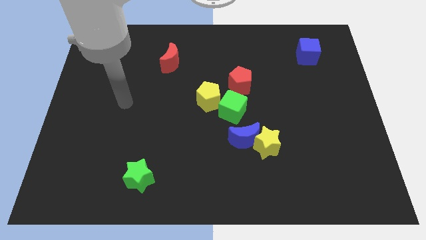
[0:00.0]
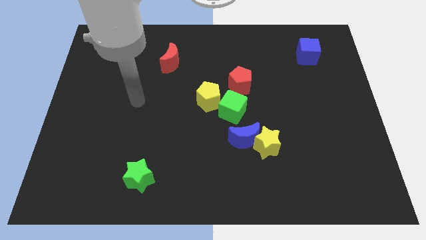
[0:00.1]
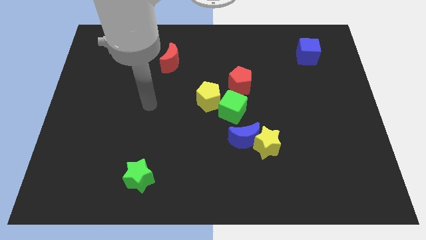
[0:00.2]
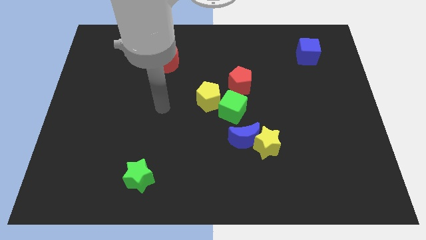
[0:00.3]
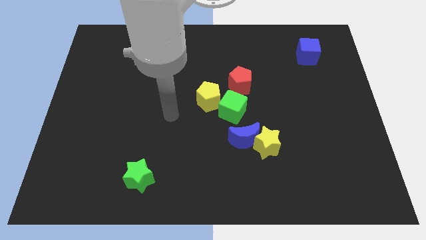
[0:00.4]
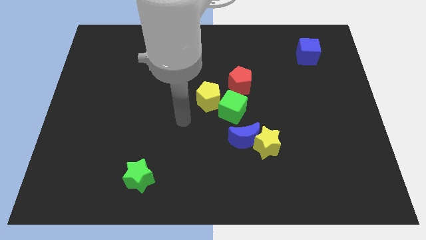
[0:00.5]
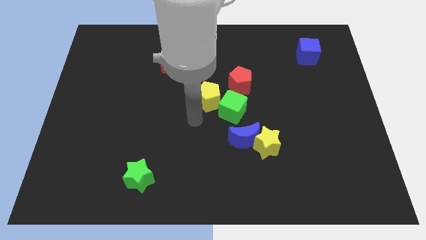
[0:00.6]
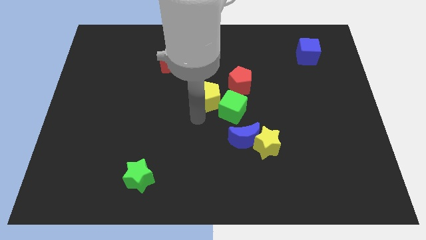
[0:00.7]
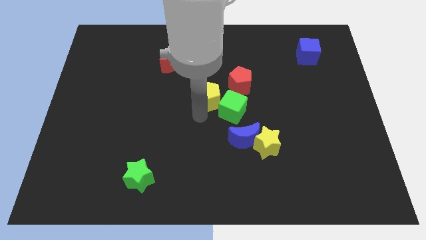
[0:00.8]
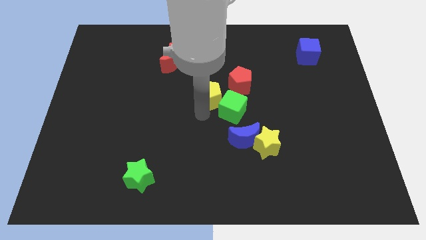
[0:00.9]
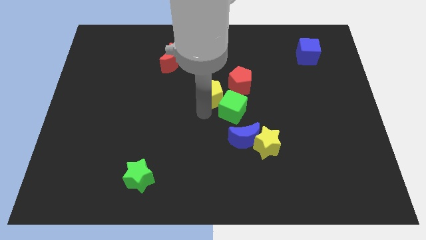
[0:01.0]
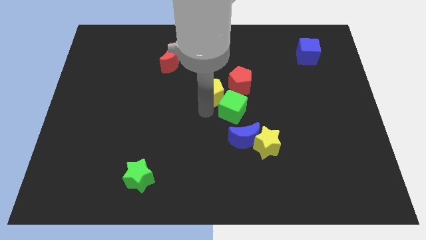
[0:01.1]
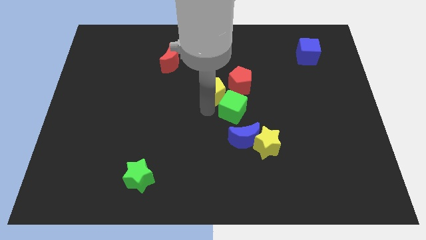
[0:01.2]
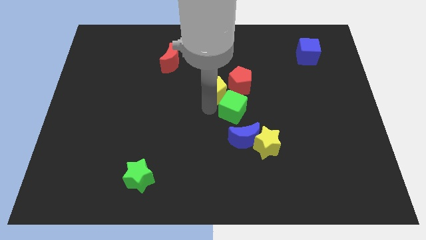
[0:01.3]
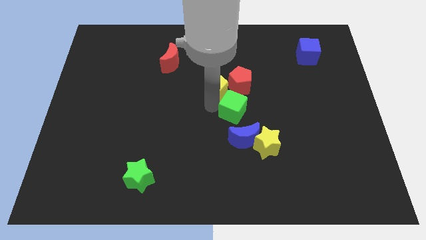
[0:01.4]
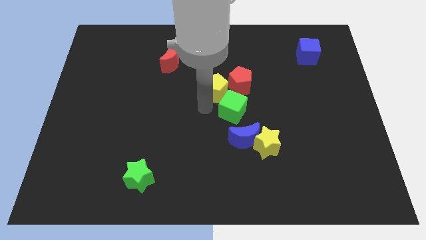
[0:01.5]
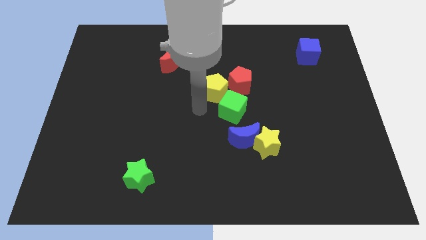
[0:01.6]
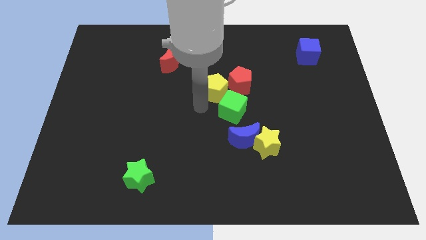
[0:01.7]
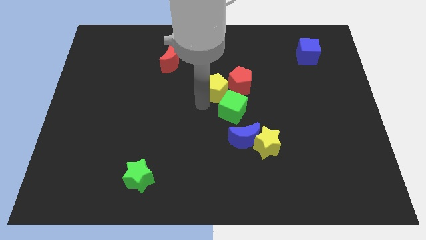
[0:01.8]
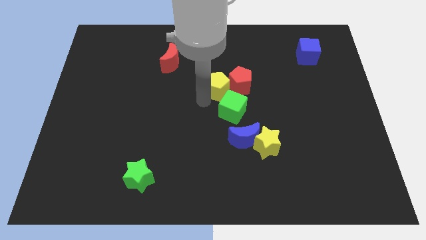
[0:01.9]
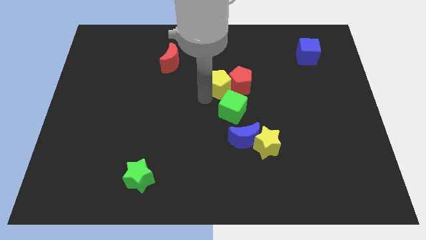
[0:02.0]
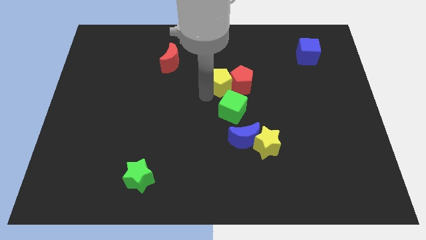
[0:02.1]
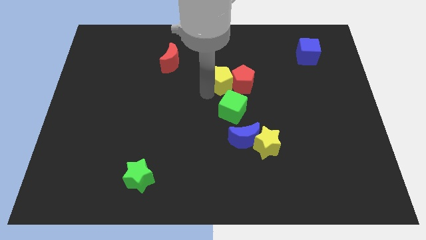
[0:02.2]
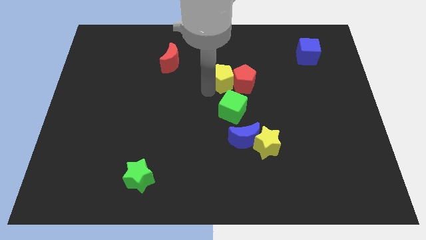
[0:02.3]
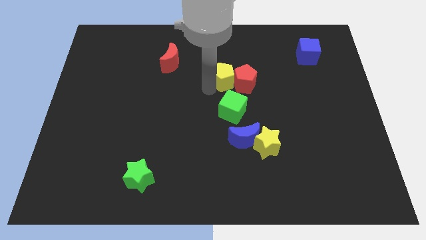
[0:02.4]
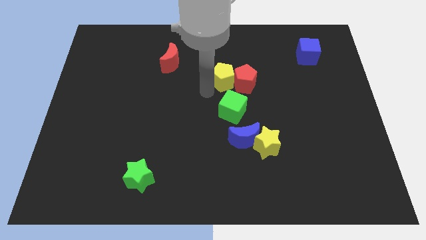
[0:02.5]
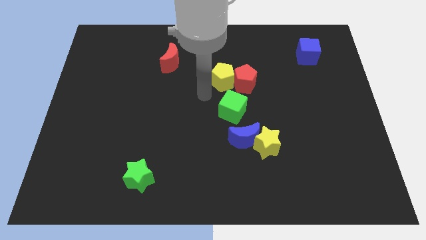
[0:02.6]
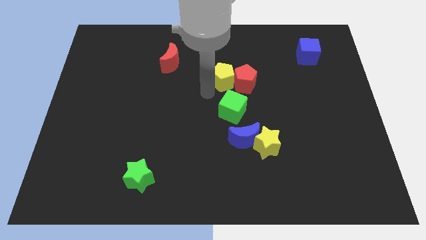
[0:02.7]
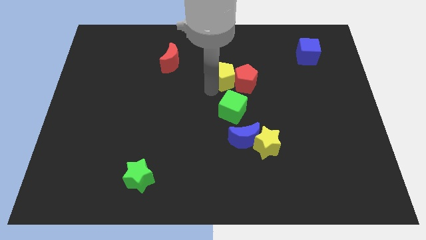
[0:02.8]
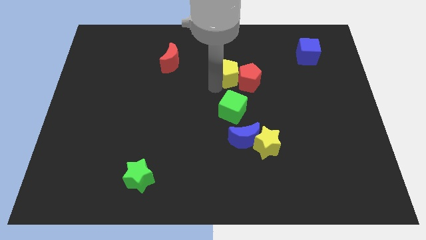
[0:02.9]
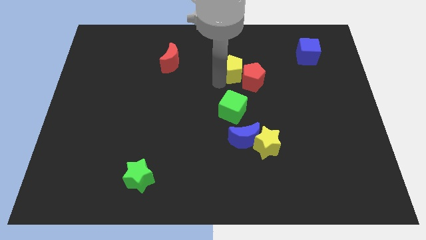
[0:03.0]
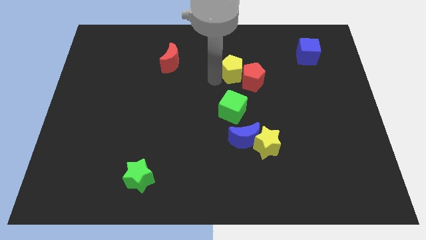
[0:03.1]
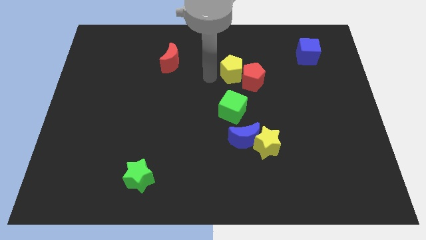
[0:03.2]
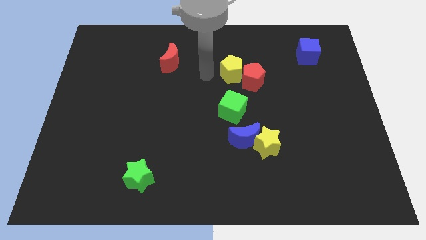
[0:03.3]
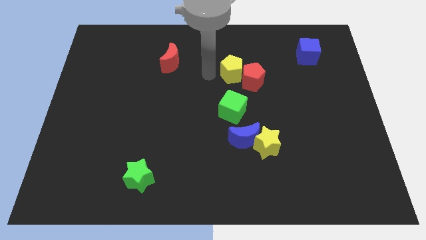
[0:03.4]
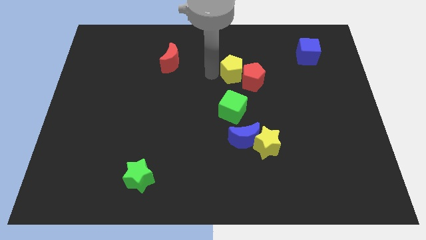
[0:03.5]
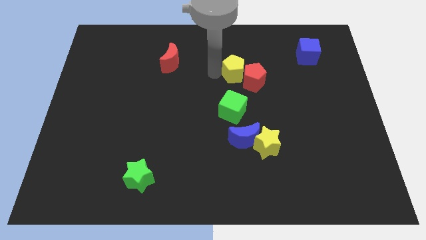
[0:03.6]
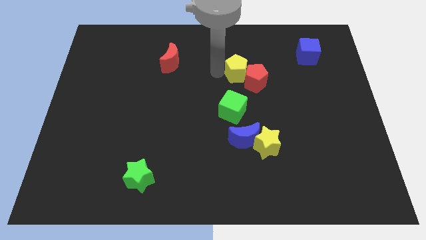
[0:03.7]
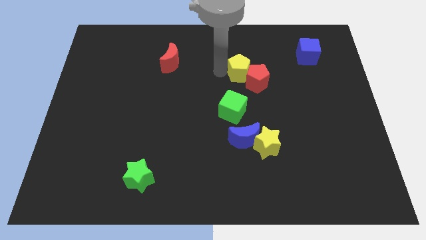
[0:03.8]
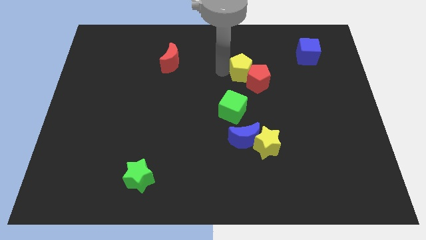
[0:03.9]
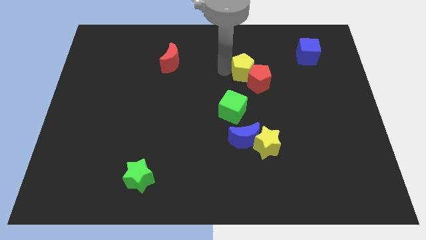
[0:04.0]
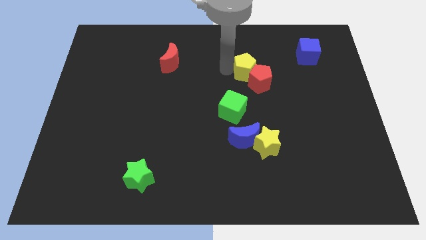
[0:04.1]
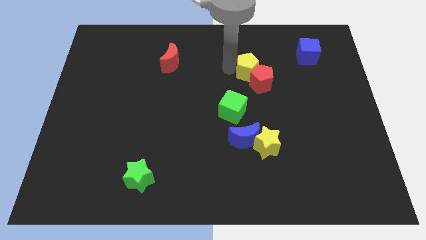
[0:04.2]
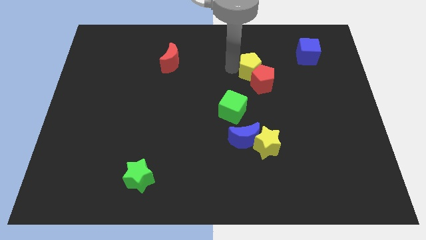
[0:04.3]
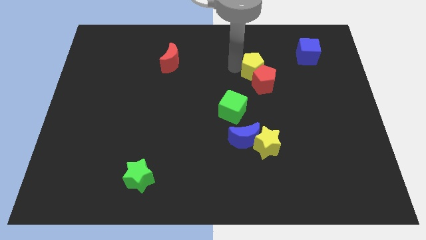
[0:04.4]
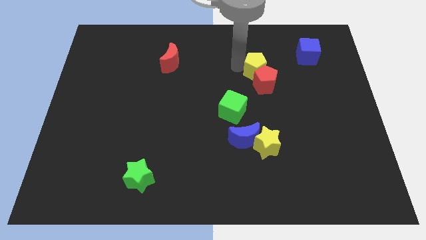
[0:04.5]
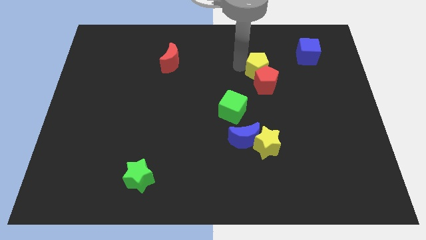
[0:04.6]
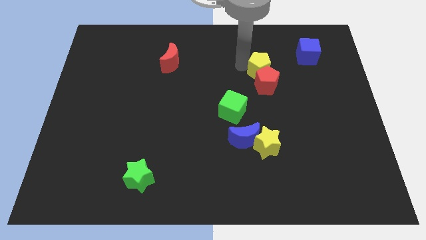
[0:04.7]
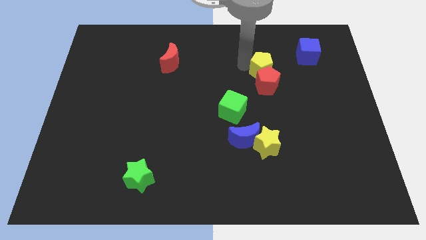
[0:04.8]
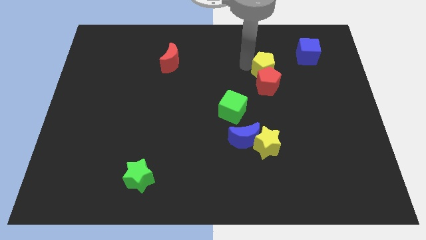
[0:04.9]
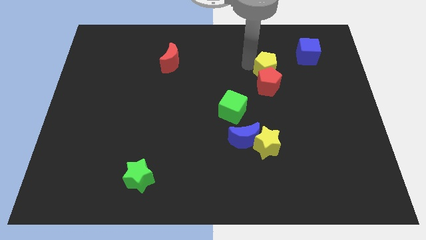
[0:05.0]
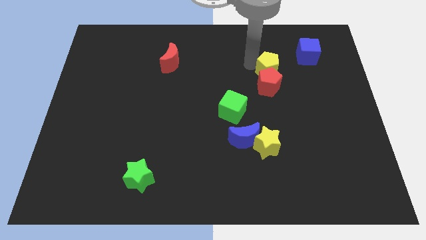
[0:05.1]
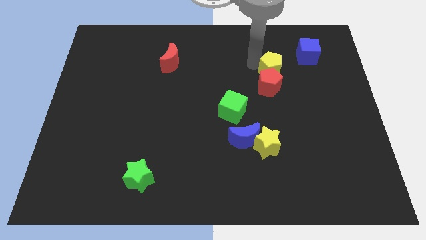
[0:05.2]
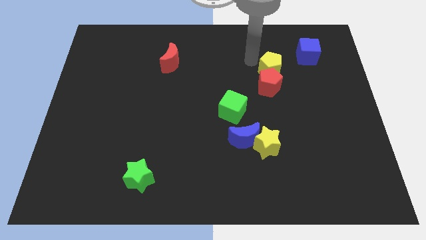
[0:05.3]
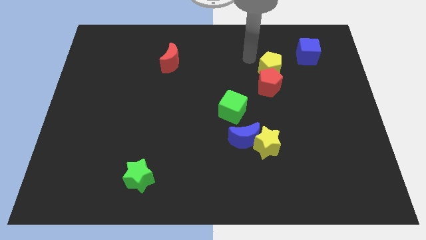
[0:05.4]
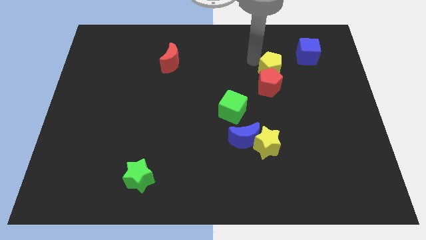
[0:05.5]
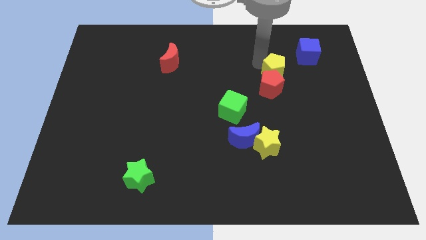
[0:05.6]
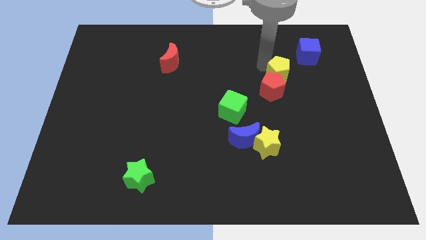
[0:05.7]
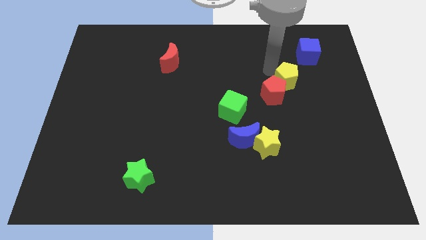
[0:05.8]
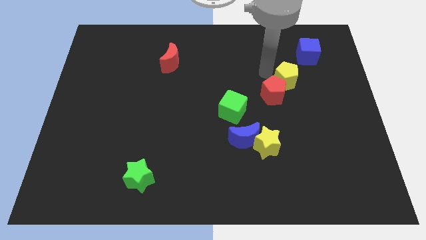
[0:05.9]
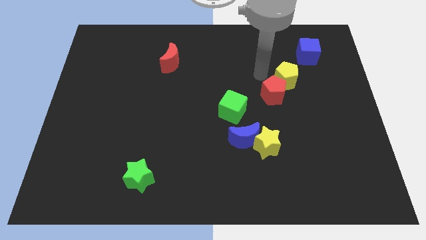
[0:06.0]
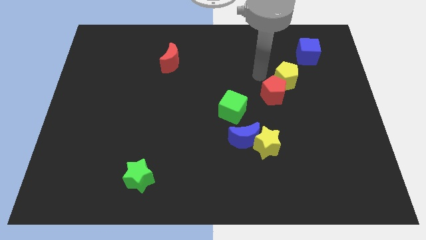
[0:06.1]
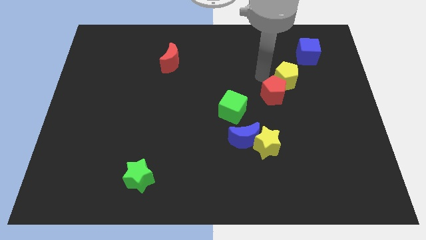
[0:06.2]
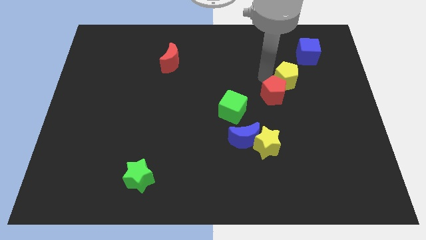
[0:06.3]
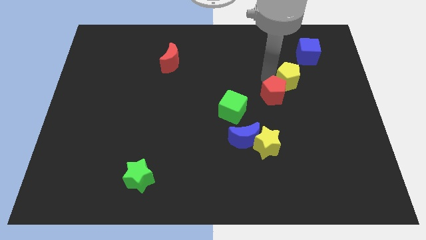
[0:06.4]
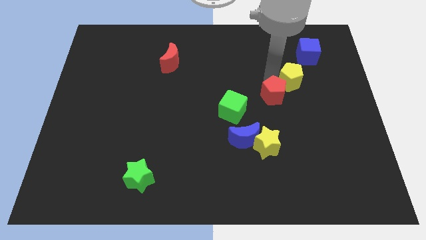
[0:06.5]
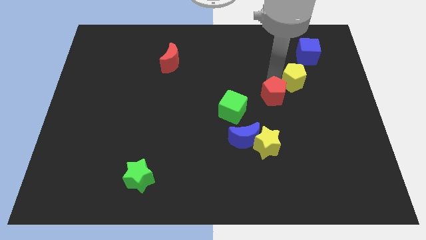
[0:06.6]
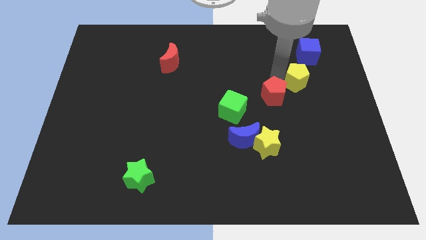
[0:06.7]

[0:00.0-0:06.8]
move the yellow pentagon below the blue cube

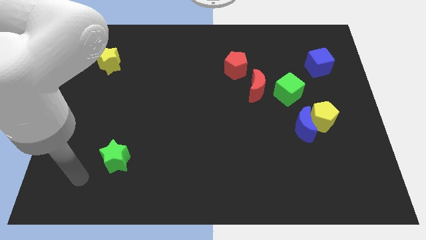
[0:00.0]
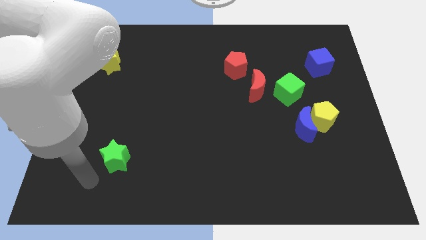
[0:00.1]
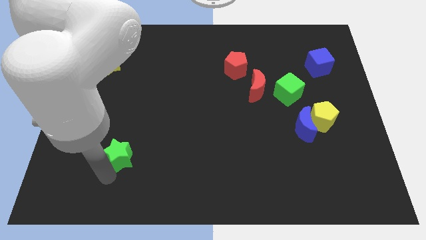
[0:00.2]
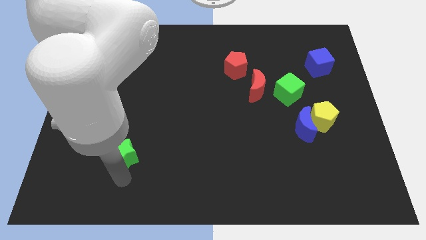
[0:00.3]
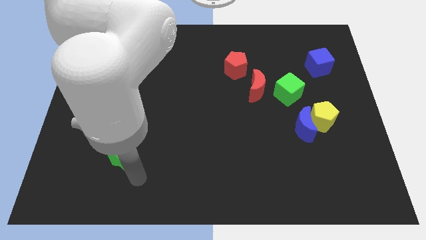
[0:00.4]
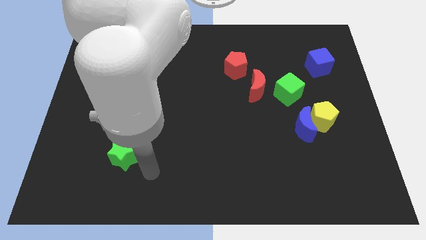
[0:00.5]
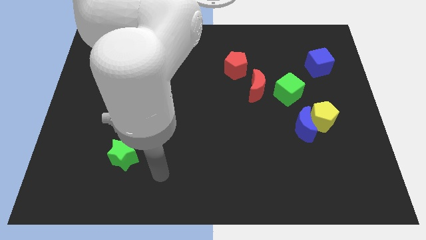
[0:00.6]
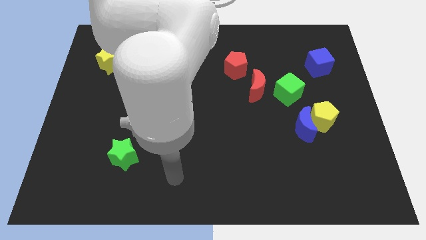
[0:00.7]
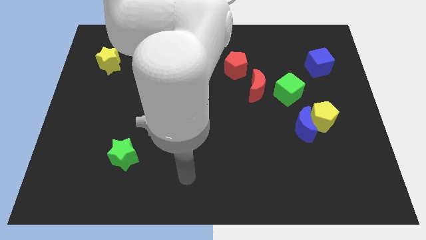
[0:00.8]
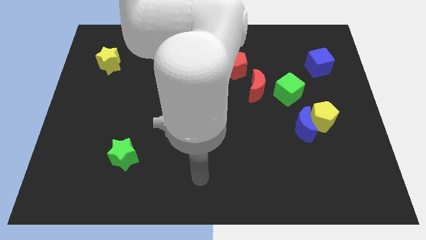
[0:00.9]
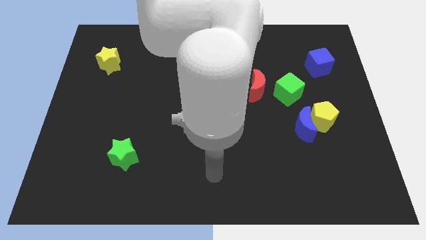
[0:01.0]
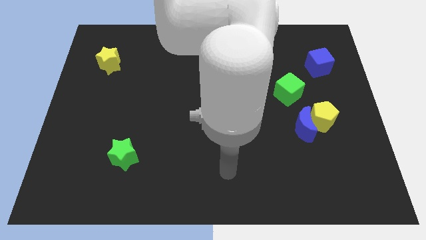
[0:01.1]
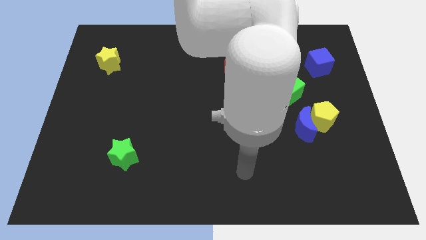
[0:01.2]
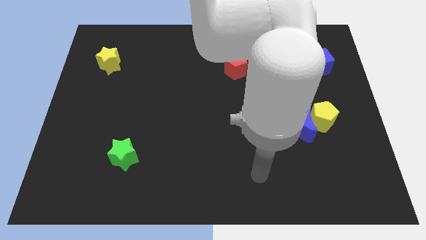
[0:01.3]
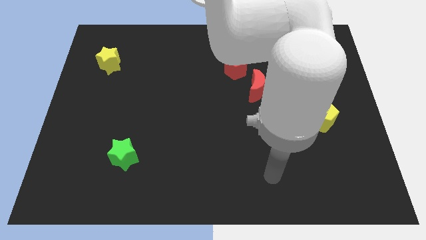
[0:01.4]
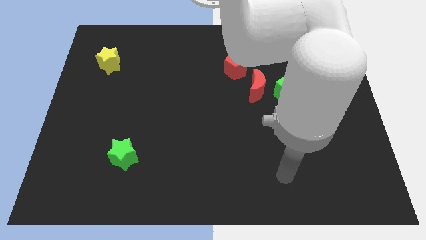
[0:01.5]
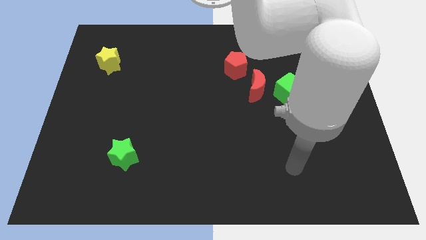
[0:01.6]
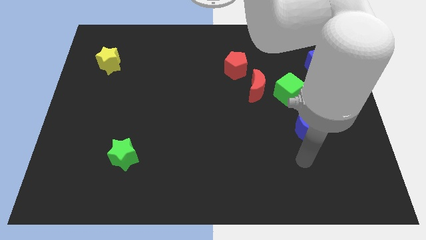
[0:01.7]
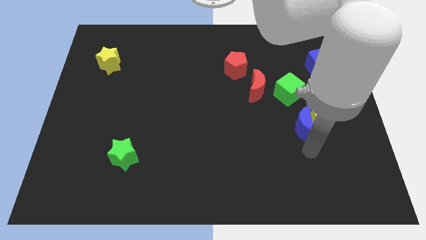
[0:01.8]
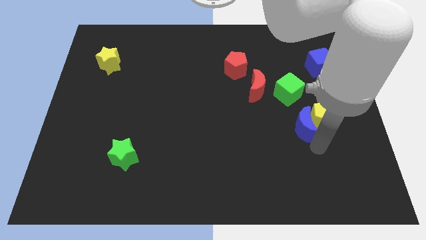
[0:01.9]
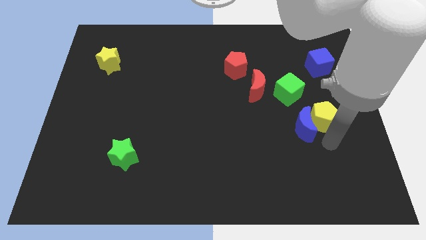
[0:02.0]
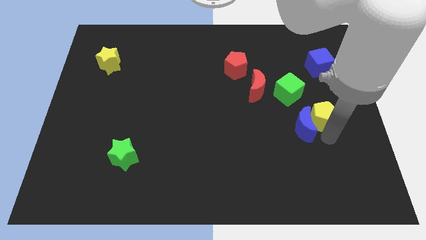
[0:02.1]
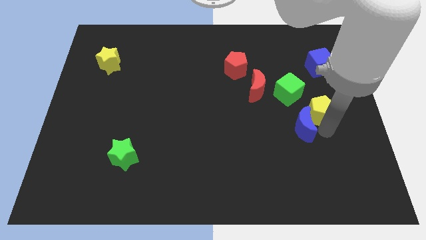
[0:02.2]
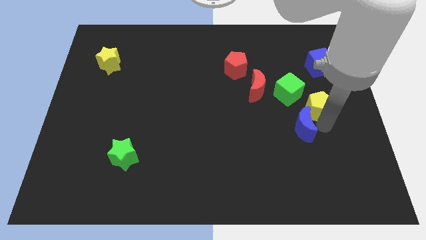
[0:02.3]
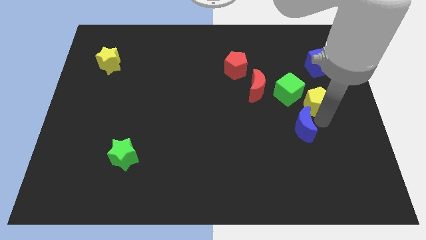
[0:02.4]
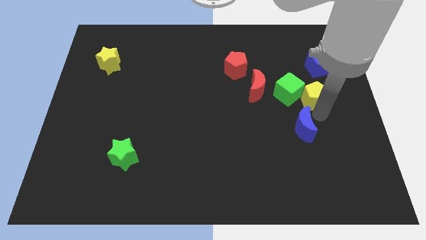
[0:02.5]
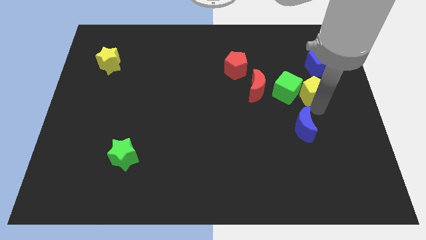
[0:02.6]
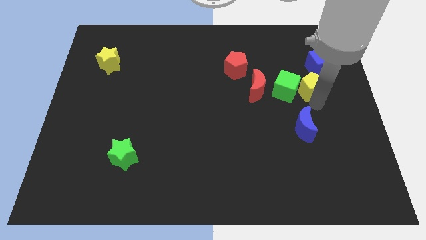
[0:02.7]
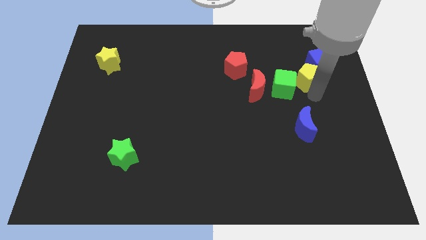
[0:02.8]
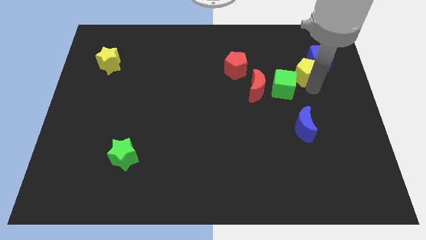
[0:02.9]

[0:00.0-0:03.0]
push the yellow pentagon to the left of the blue cube
